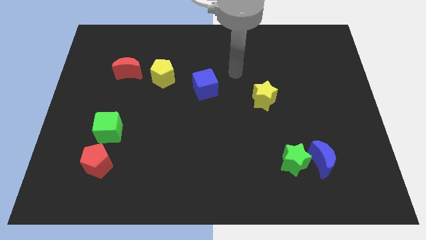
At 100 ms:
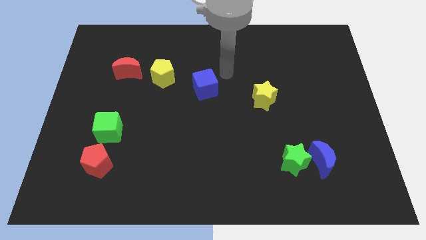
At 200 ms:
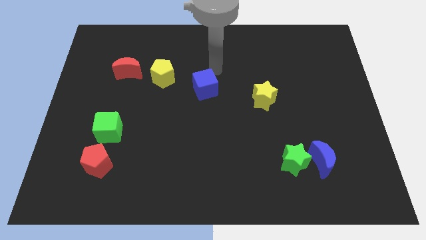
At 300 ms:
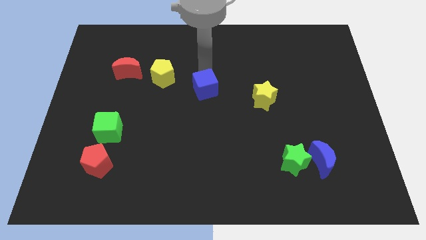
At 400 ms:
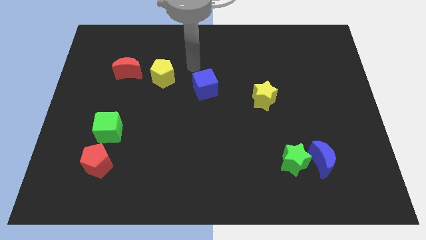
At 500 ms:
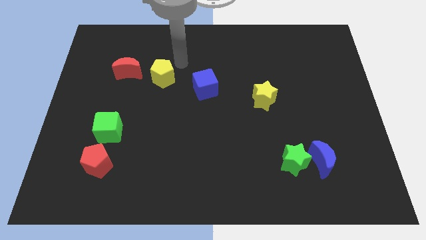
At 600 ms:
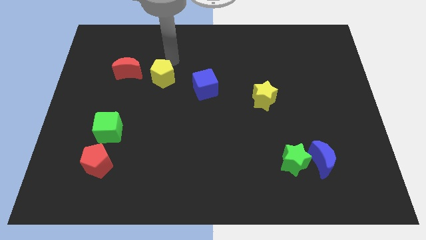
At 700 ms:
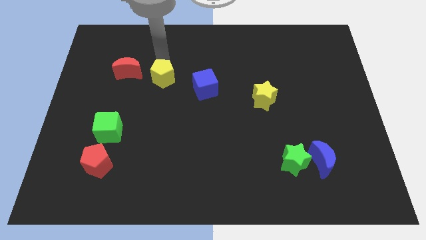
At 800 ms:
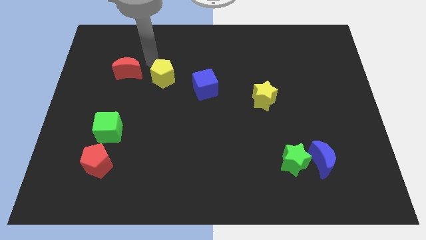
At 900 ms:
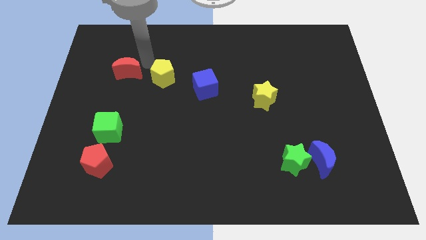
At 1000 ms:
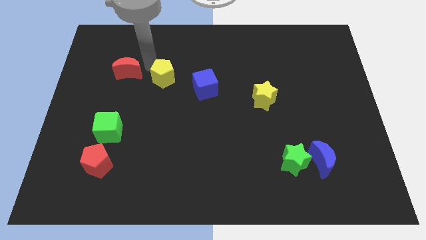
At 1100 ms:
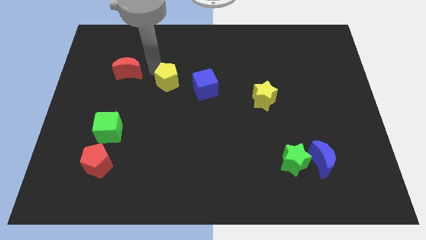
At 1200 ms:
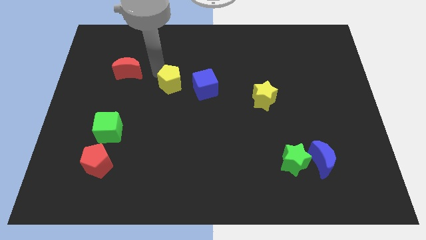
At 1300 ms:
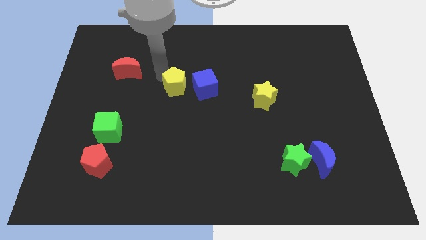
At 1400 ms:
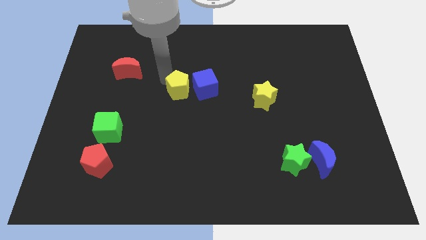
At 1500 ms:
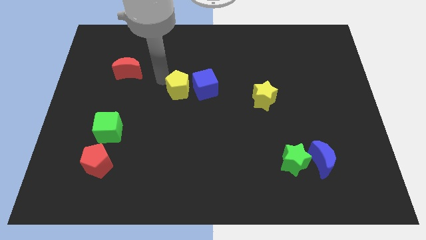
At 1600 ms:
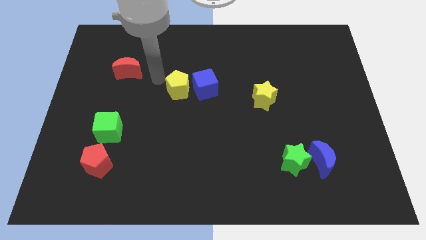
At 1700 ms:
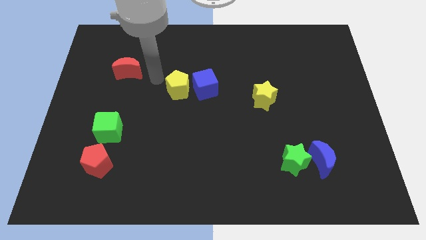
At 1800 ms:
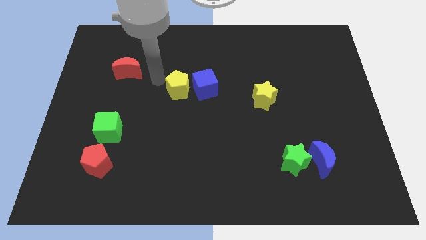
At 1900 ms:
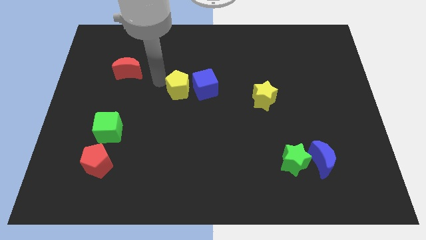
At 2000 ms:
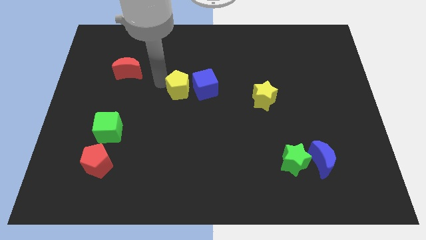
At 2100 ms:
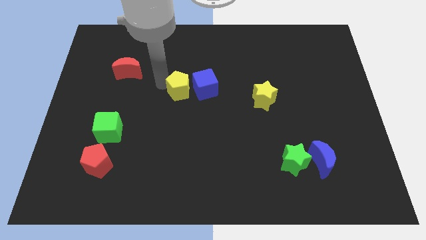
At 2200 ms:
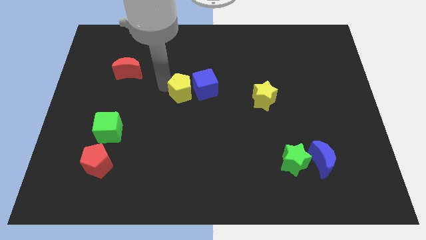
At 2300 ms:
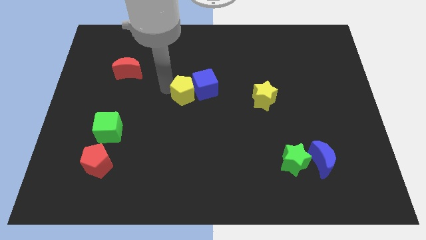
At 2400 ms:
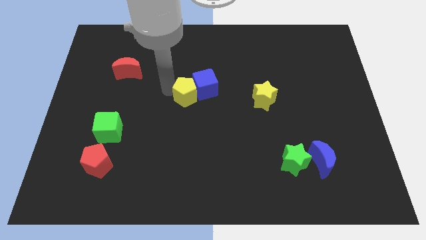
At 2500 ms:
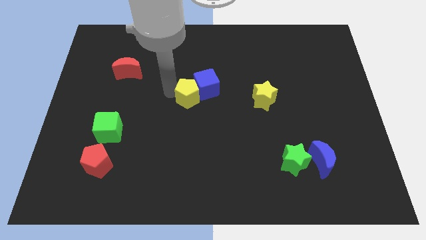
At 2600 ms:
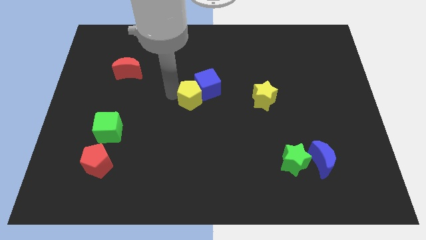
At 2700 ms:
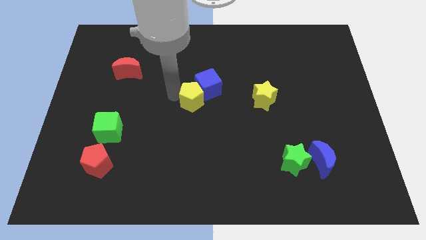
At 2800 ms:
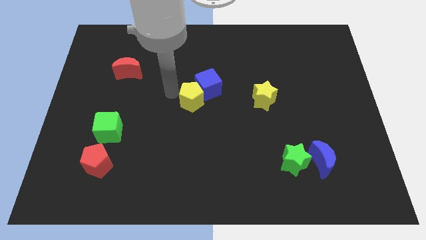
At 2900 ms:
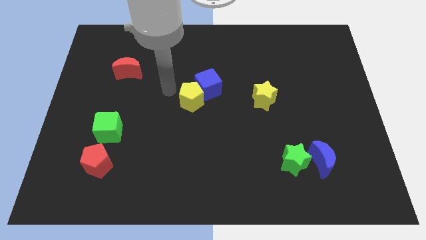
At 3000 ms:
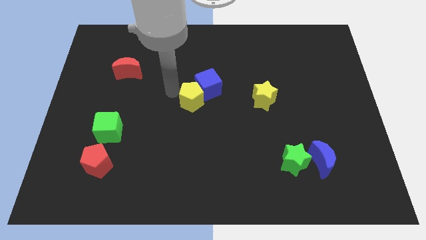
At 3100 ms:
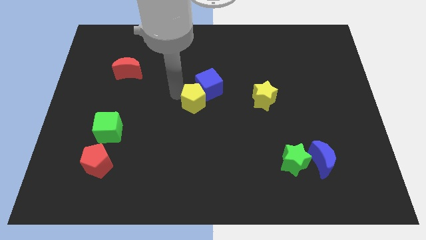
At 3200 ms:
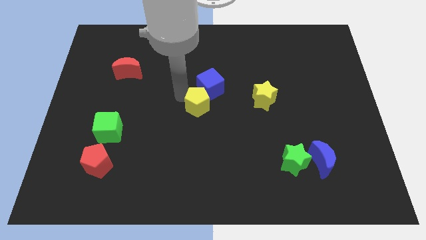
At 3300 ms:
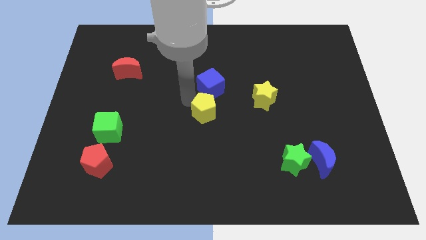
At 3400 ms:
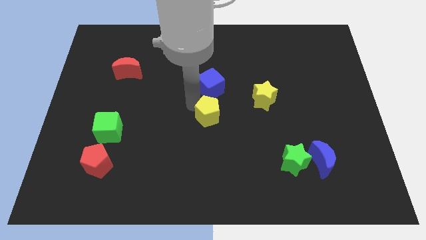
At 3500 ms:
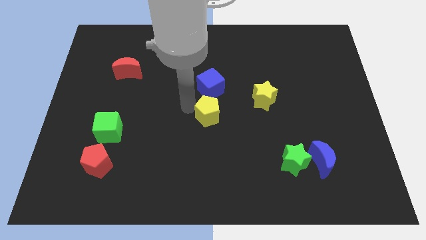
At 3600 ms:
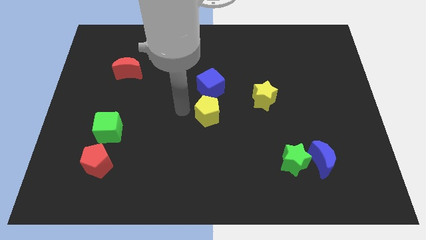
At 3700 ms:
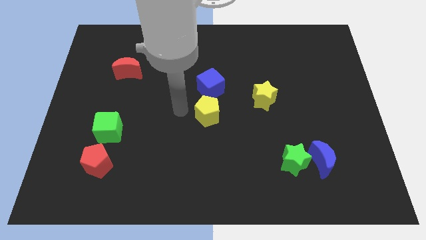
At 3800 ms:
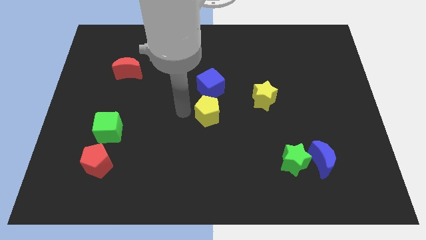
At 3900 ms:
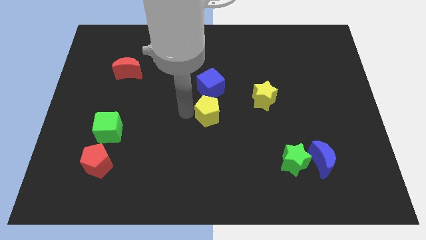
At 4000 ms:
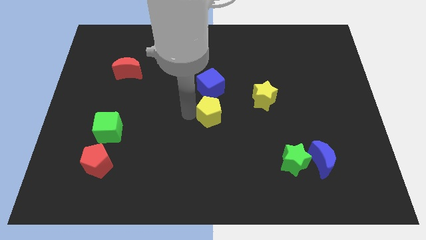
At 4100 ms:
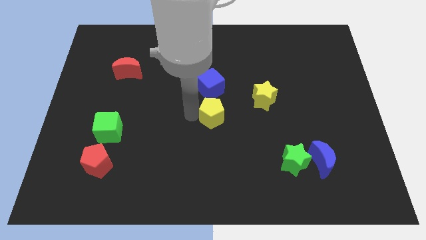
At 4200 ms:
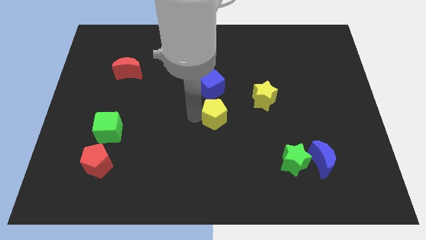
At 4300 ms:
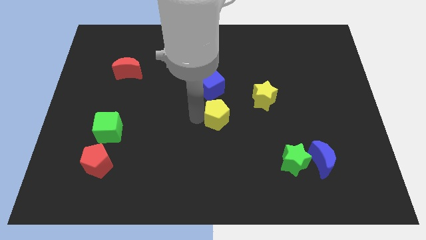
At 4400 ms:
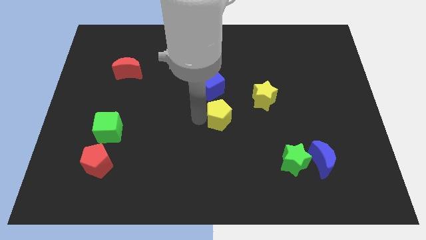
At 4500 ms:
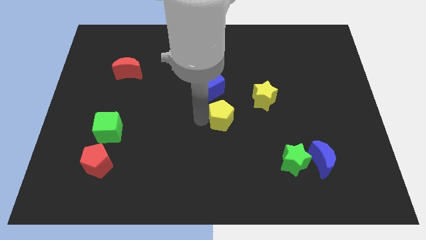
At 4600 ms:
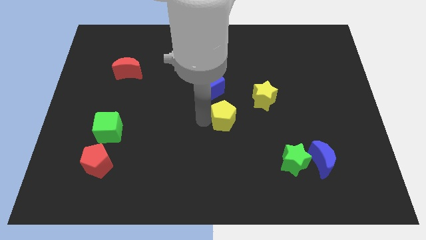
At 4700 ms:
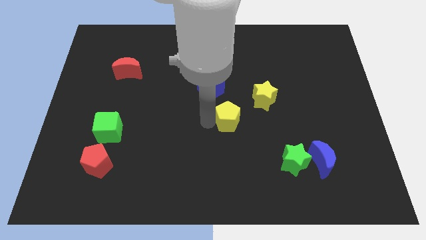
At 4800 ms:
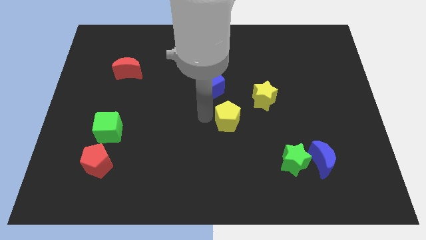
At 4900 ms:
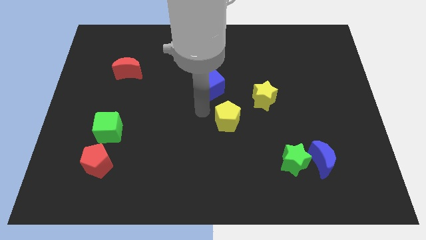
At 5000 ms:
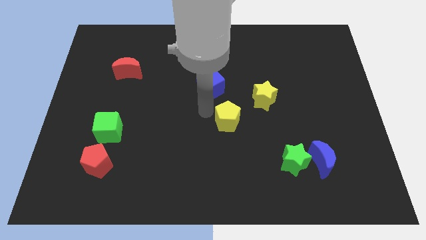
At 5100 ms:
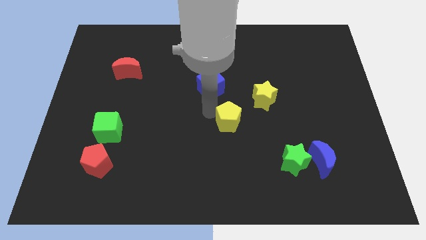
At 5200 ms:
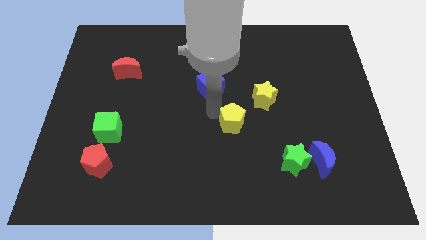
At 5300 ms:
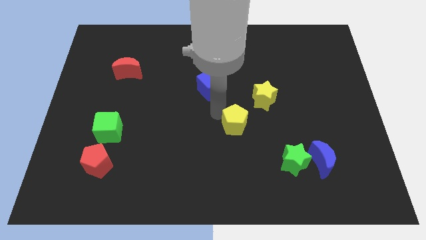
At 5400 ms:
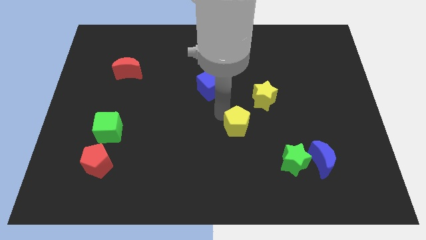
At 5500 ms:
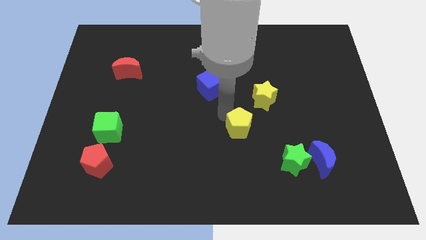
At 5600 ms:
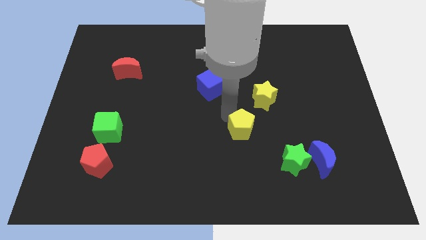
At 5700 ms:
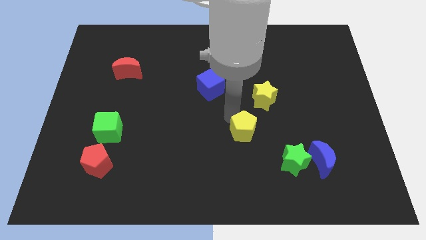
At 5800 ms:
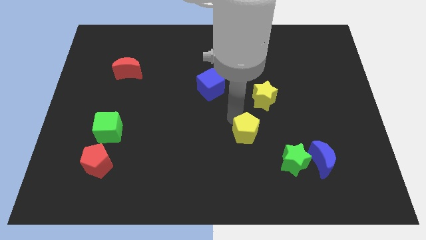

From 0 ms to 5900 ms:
put the yellow pentagon to the bottom of the yellow star

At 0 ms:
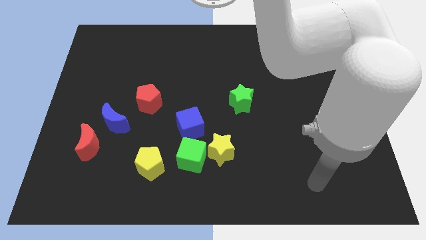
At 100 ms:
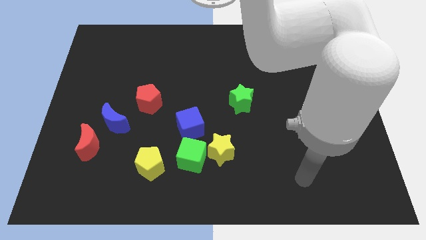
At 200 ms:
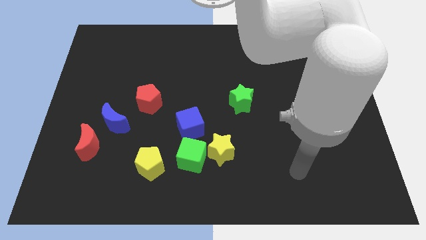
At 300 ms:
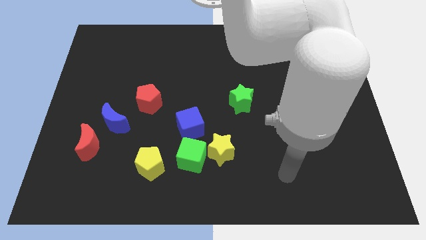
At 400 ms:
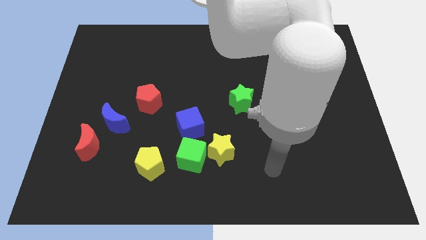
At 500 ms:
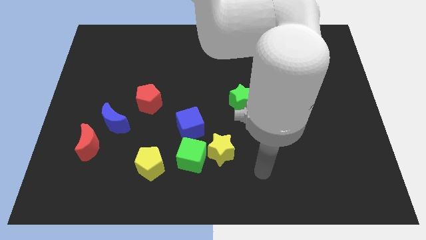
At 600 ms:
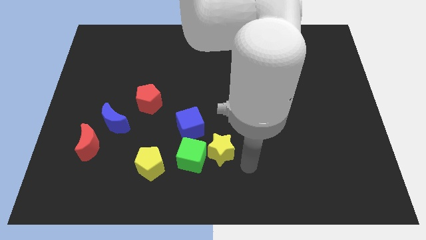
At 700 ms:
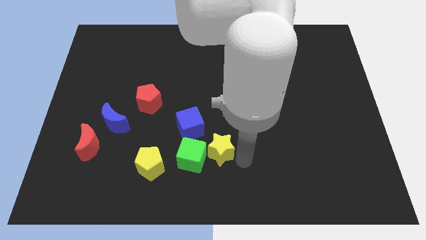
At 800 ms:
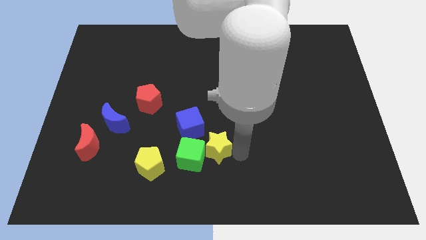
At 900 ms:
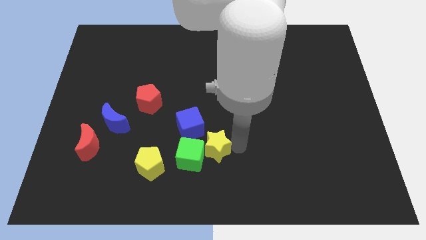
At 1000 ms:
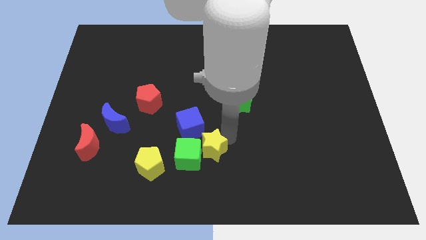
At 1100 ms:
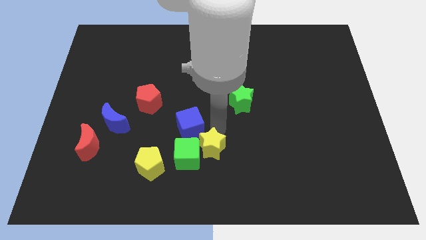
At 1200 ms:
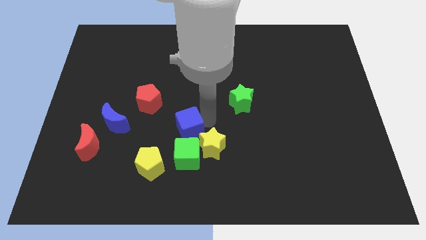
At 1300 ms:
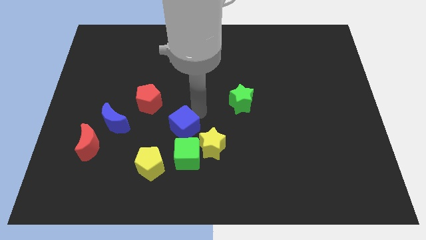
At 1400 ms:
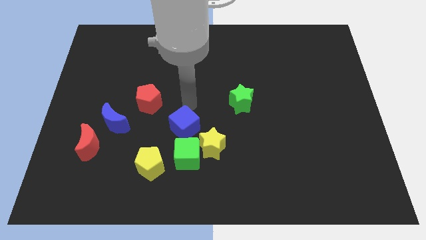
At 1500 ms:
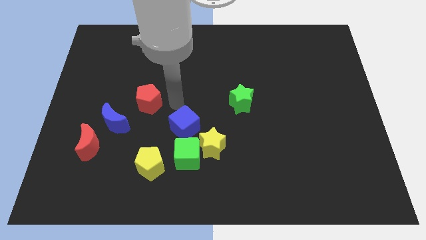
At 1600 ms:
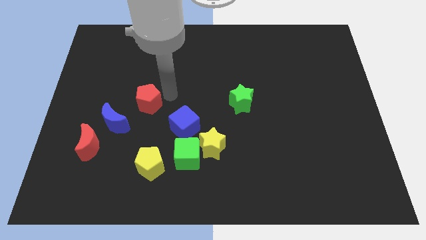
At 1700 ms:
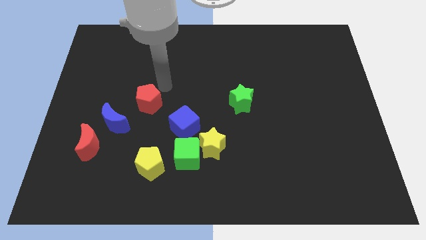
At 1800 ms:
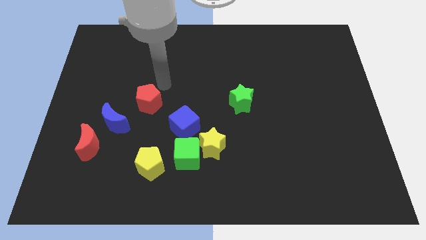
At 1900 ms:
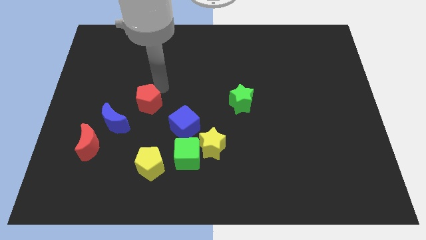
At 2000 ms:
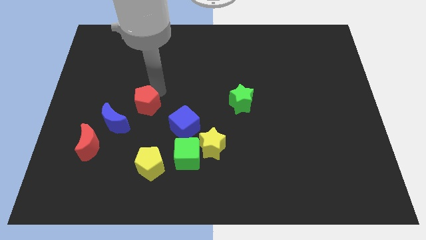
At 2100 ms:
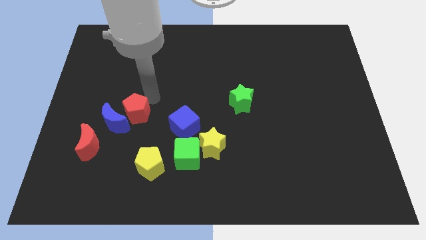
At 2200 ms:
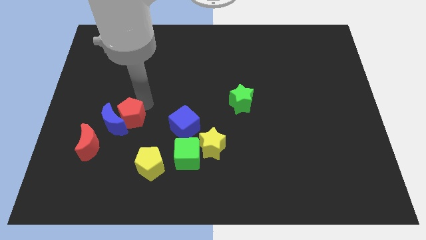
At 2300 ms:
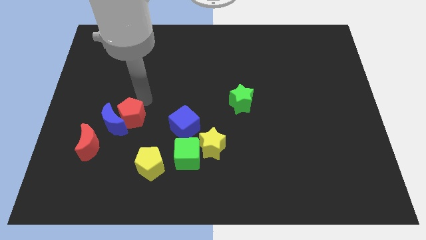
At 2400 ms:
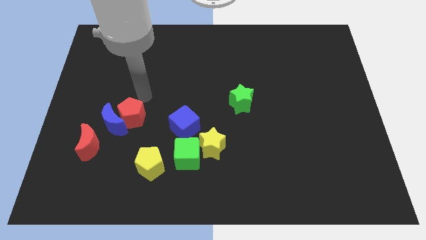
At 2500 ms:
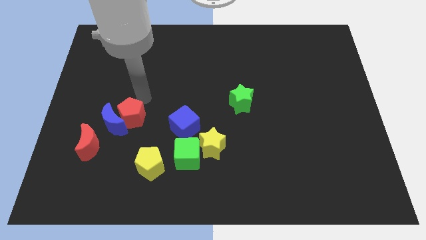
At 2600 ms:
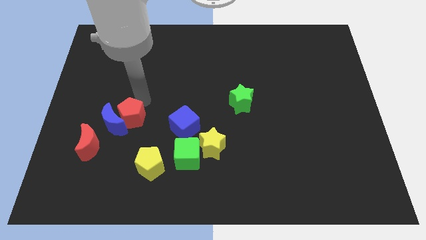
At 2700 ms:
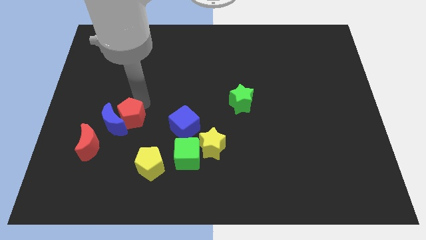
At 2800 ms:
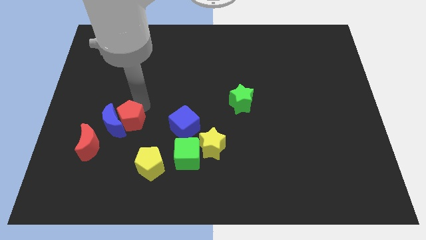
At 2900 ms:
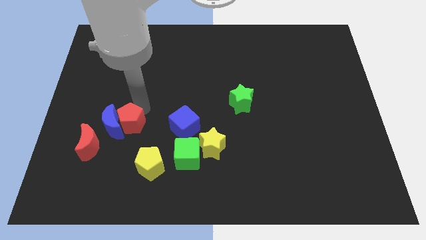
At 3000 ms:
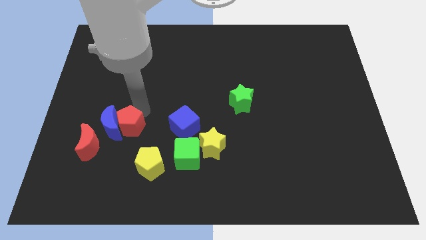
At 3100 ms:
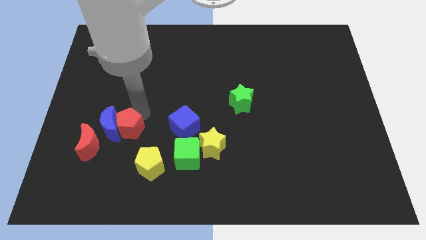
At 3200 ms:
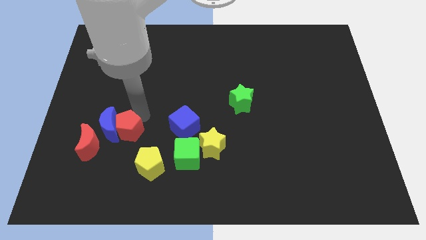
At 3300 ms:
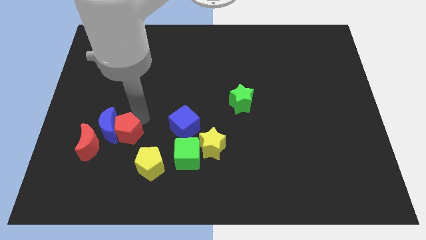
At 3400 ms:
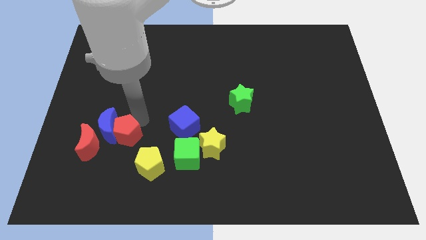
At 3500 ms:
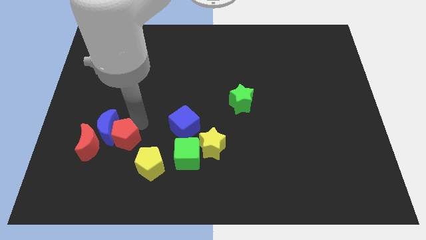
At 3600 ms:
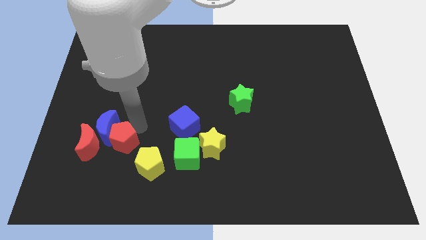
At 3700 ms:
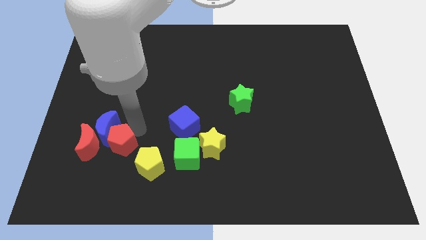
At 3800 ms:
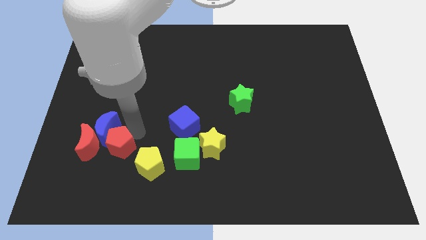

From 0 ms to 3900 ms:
push the red pentagon just left of the yellow pentagon
